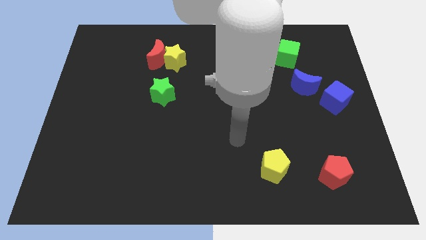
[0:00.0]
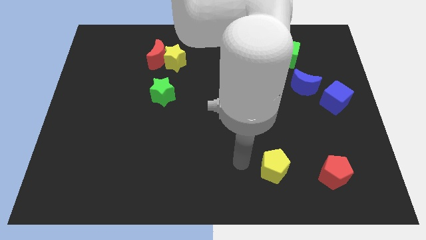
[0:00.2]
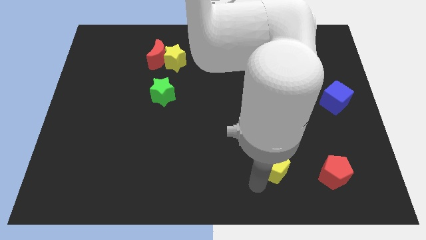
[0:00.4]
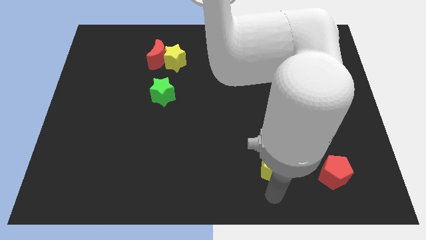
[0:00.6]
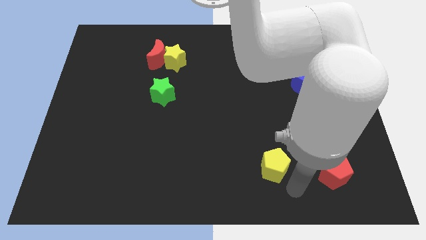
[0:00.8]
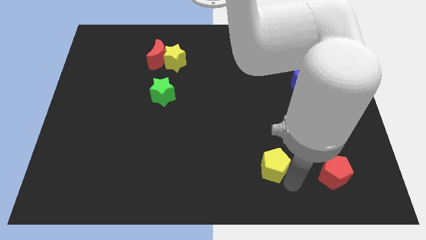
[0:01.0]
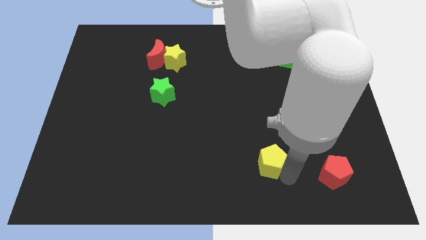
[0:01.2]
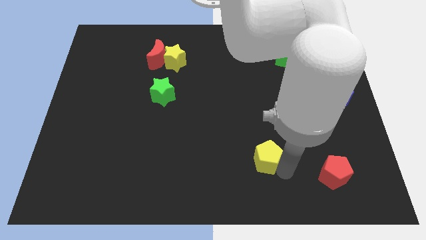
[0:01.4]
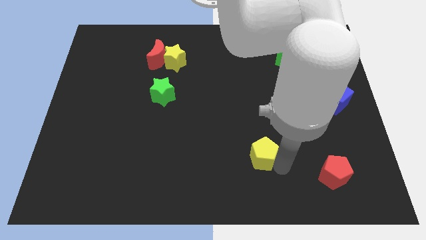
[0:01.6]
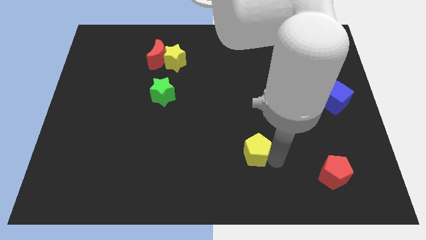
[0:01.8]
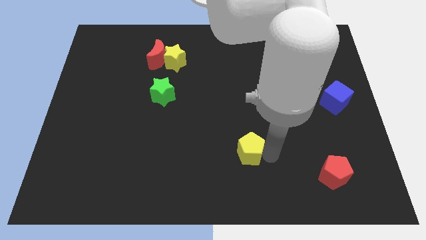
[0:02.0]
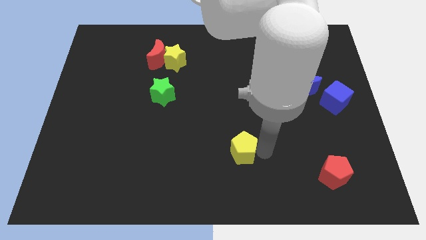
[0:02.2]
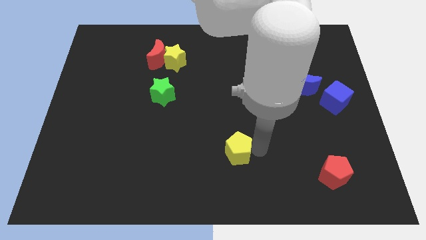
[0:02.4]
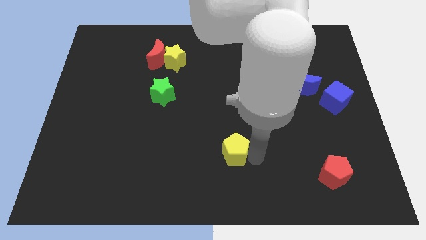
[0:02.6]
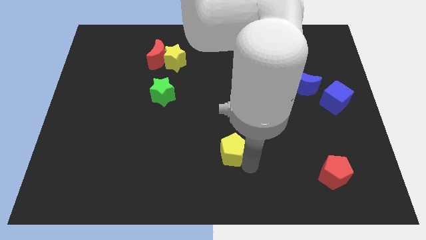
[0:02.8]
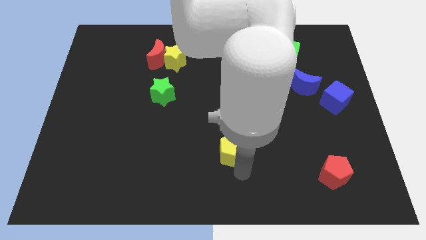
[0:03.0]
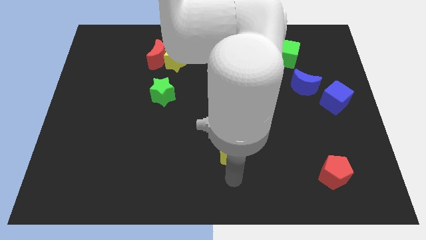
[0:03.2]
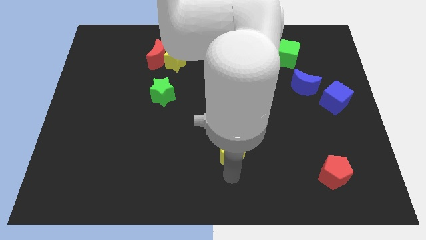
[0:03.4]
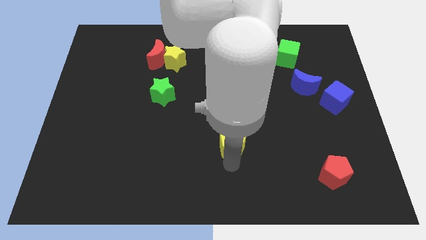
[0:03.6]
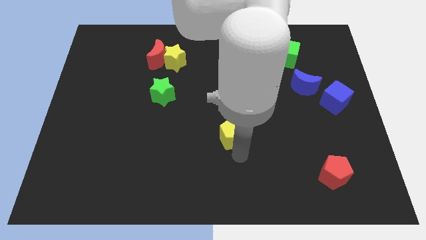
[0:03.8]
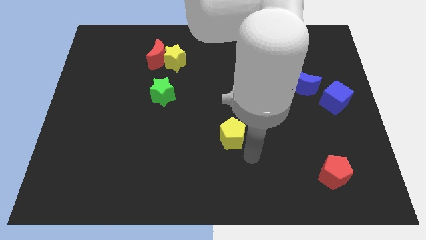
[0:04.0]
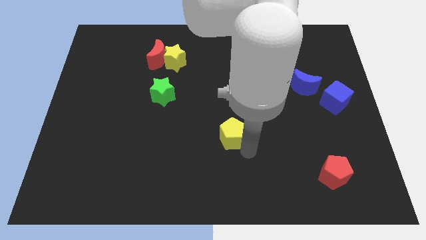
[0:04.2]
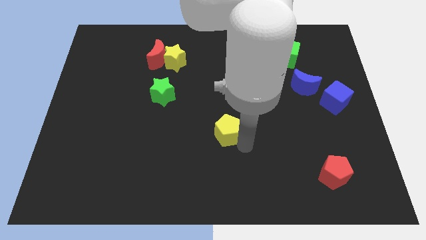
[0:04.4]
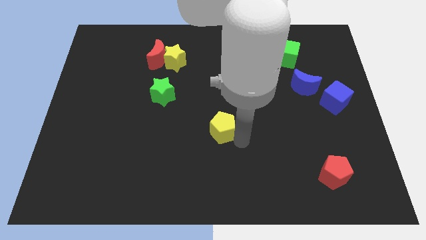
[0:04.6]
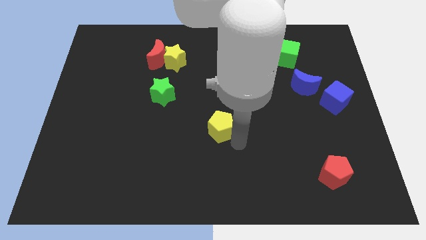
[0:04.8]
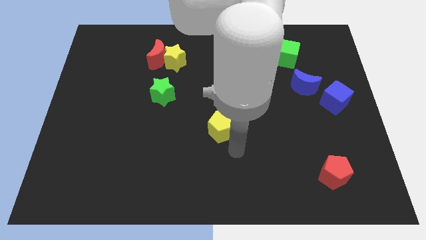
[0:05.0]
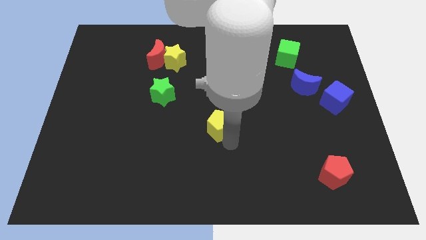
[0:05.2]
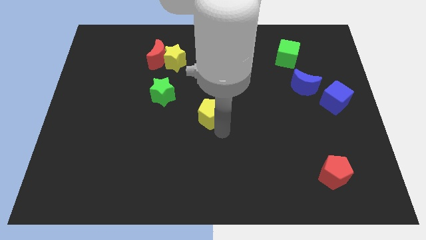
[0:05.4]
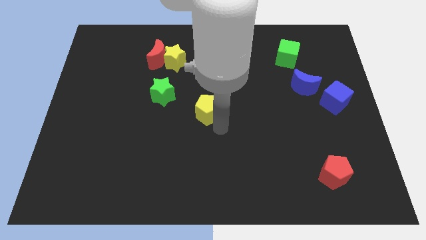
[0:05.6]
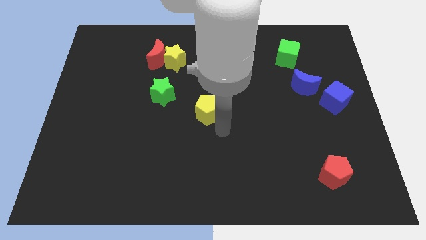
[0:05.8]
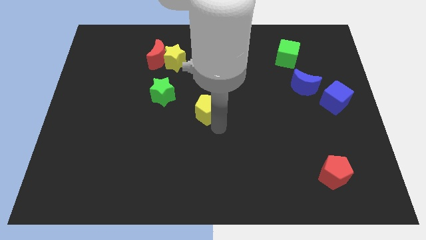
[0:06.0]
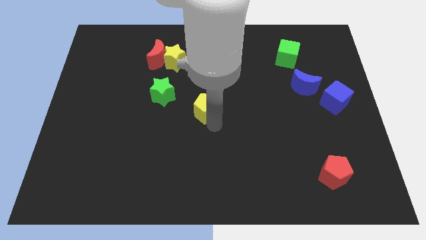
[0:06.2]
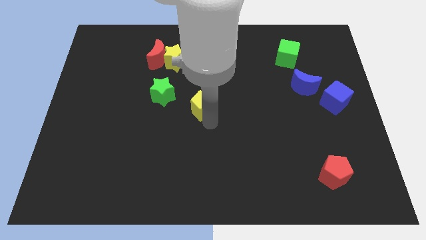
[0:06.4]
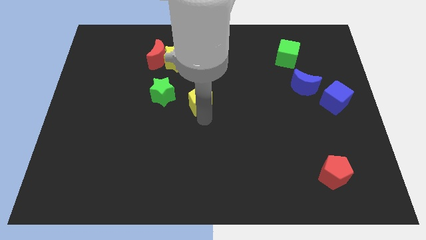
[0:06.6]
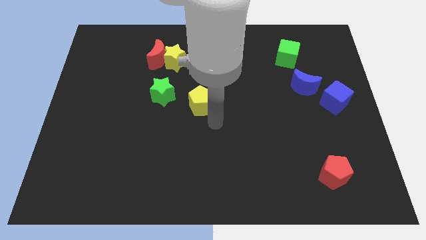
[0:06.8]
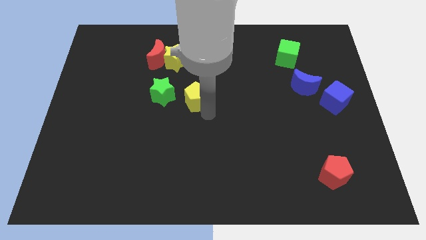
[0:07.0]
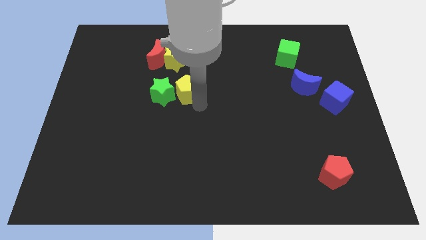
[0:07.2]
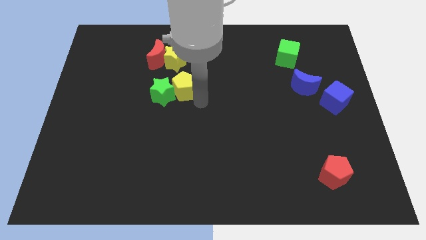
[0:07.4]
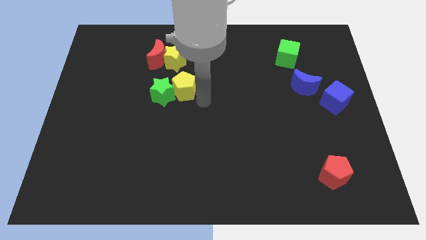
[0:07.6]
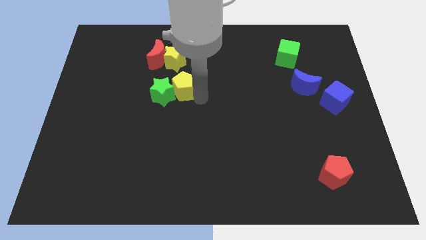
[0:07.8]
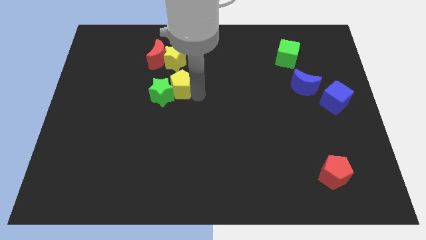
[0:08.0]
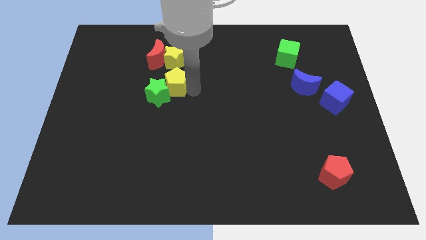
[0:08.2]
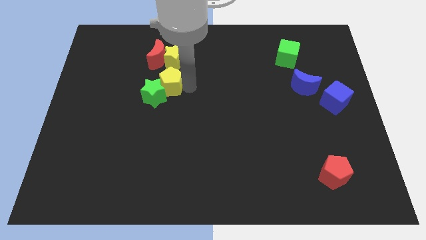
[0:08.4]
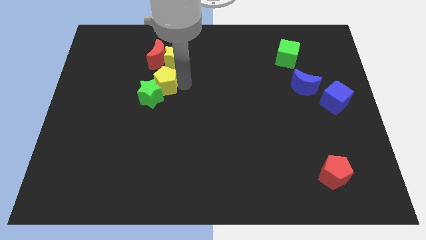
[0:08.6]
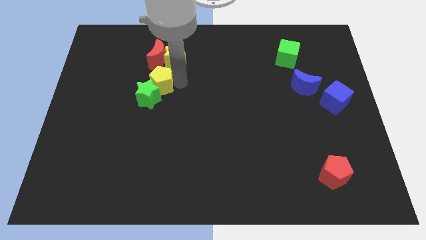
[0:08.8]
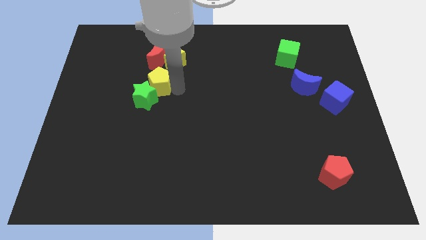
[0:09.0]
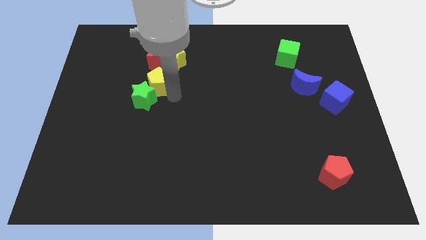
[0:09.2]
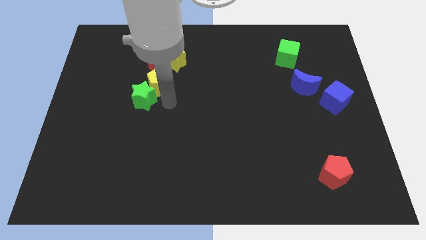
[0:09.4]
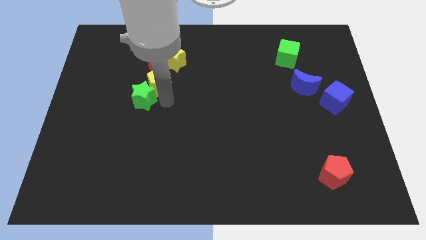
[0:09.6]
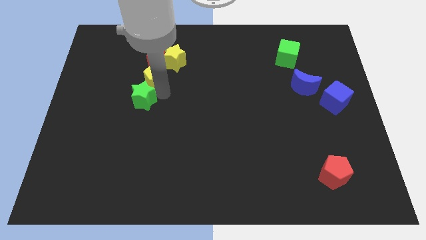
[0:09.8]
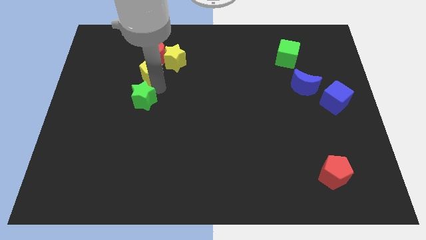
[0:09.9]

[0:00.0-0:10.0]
push the yellow pentagon close to the red moon

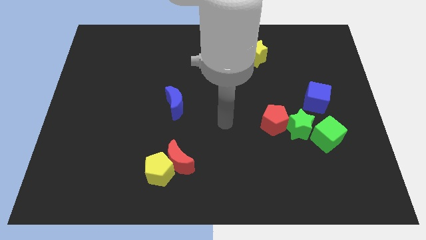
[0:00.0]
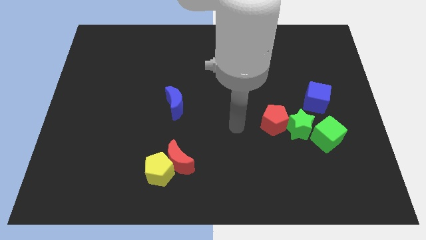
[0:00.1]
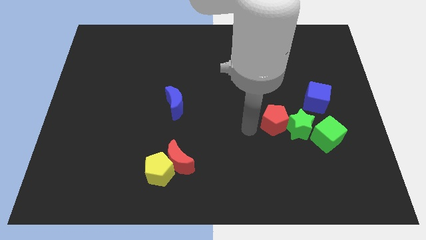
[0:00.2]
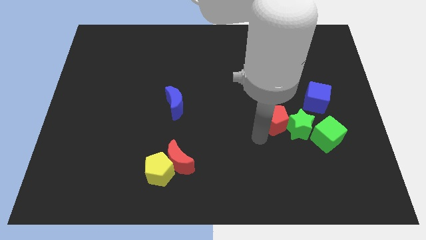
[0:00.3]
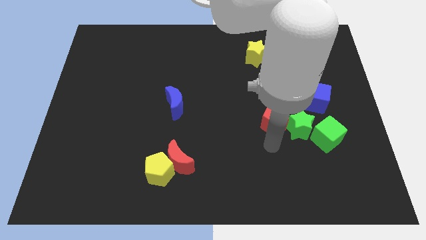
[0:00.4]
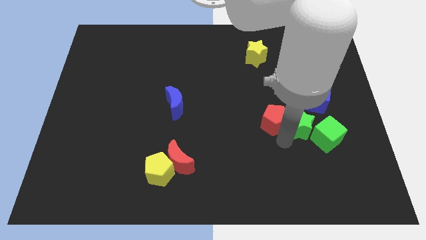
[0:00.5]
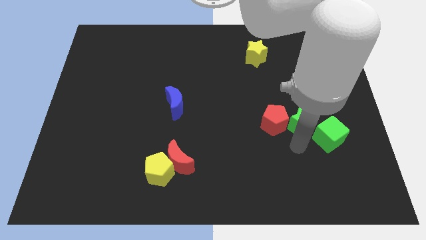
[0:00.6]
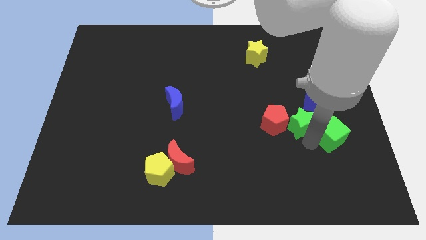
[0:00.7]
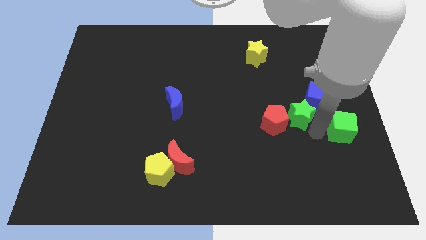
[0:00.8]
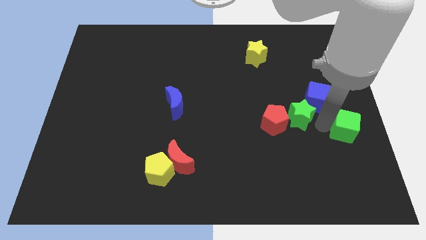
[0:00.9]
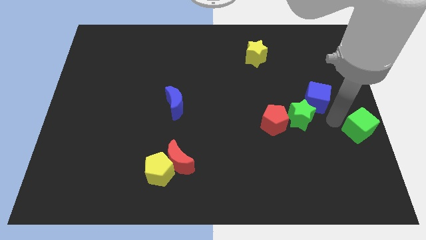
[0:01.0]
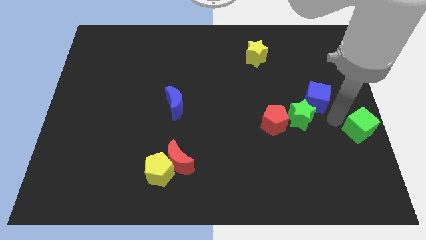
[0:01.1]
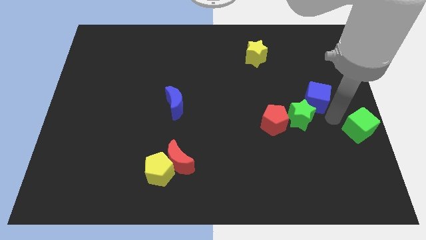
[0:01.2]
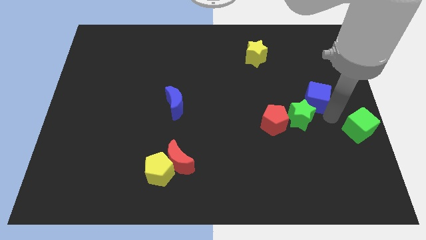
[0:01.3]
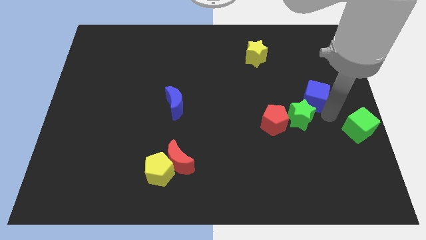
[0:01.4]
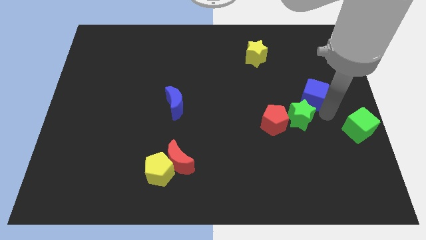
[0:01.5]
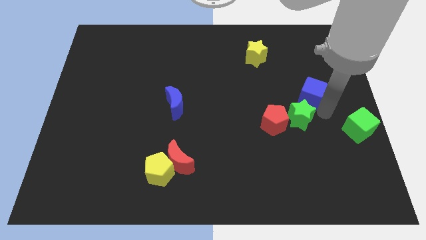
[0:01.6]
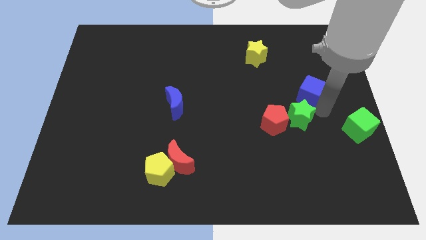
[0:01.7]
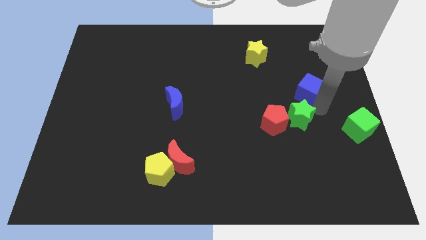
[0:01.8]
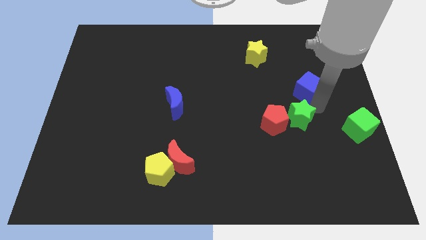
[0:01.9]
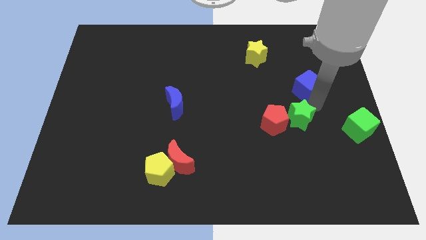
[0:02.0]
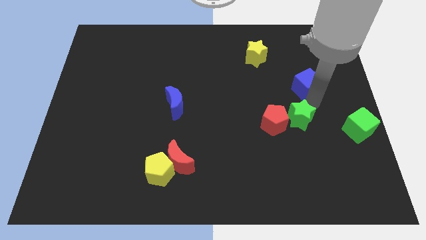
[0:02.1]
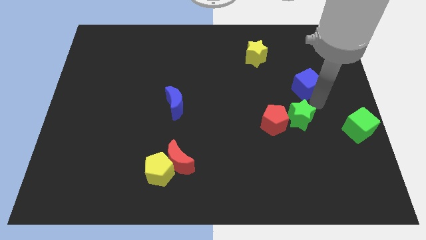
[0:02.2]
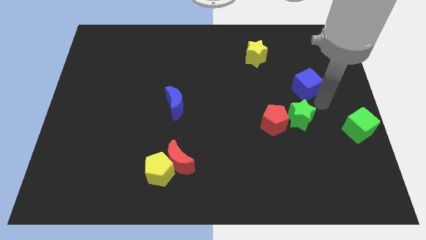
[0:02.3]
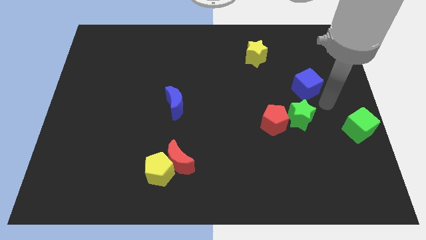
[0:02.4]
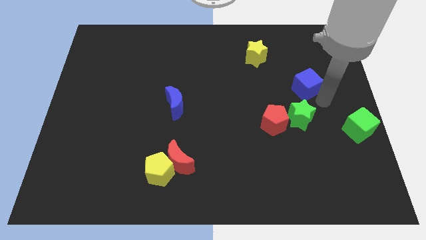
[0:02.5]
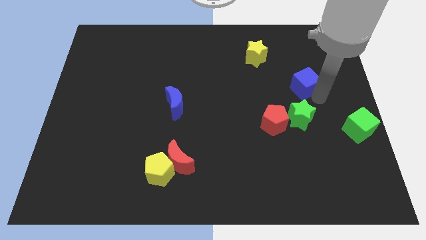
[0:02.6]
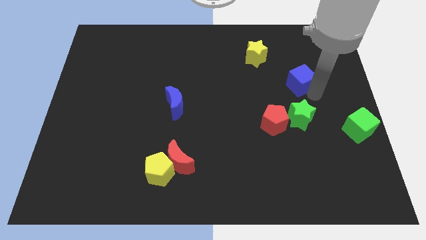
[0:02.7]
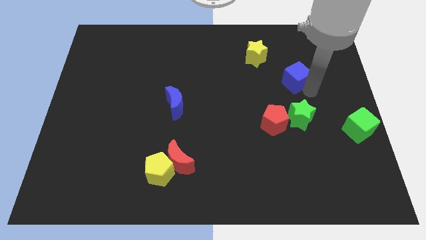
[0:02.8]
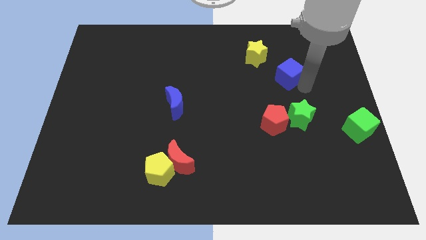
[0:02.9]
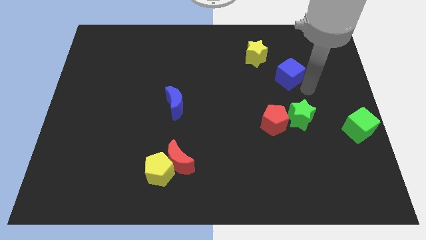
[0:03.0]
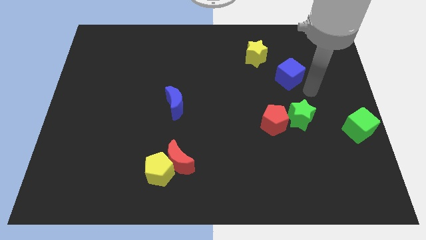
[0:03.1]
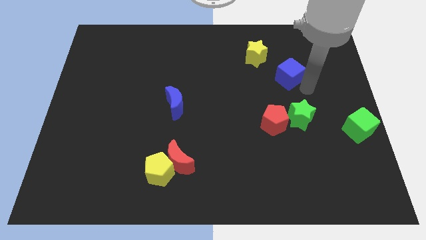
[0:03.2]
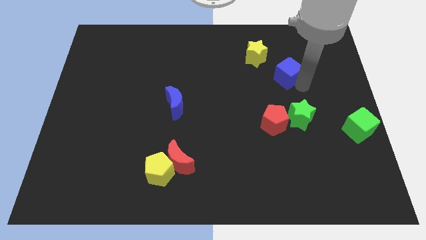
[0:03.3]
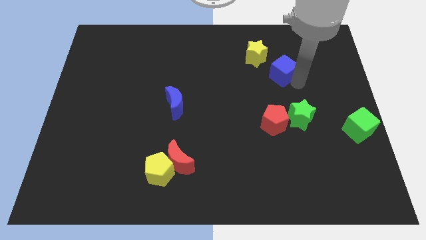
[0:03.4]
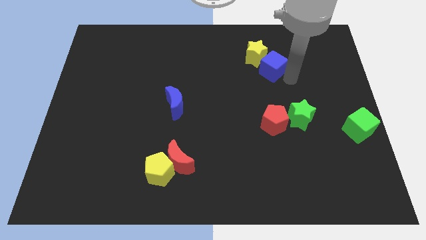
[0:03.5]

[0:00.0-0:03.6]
slide the blue cube close to the yellow star
